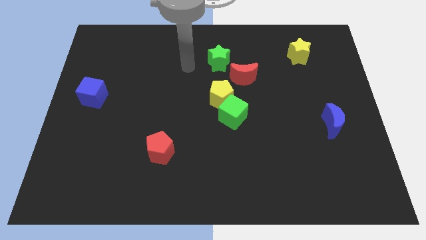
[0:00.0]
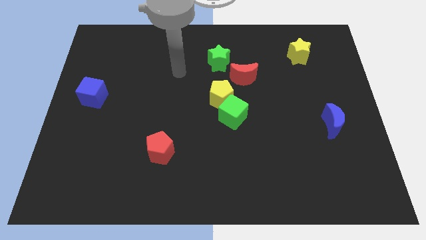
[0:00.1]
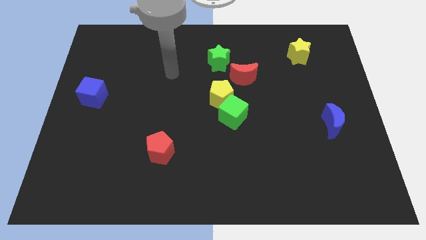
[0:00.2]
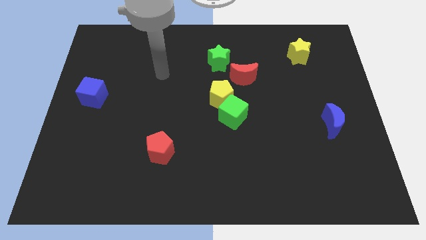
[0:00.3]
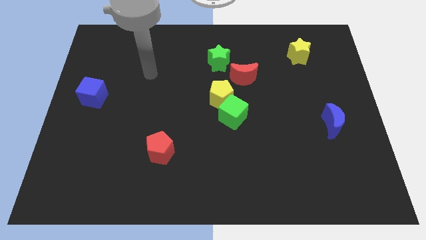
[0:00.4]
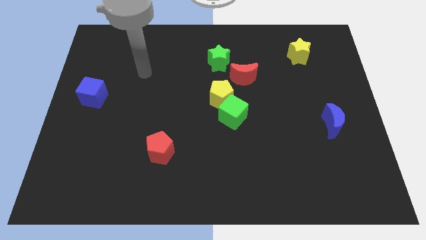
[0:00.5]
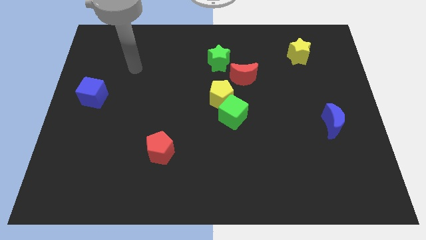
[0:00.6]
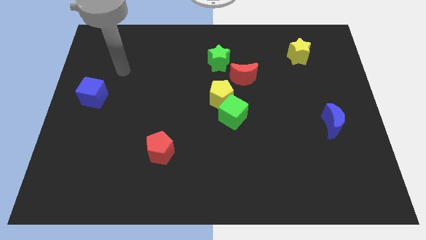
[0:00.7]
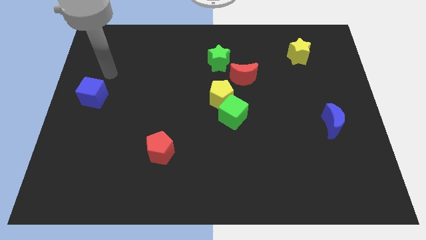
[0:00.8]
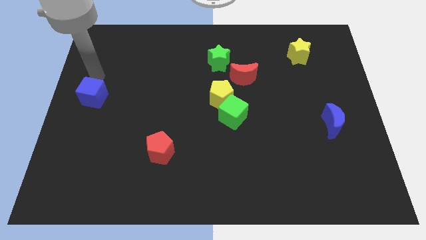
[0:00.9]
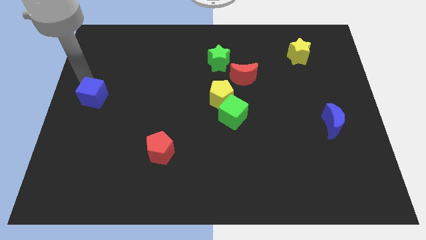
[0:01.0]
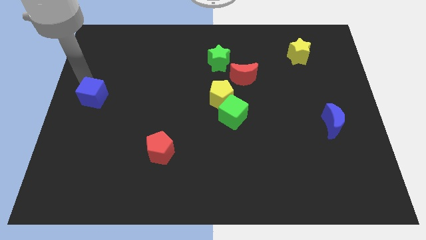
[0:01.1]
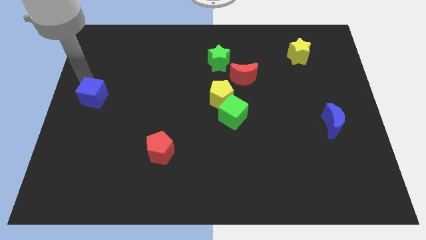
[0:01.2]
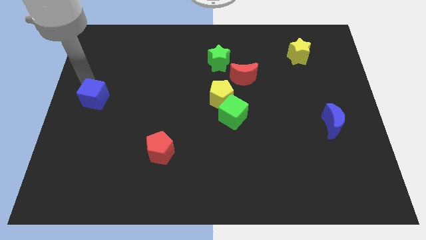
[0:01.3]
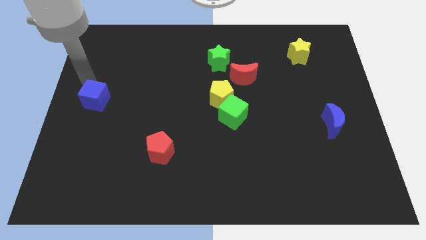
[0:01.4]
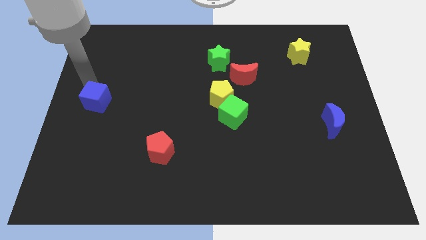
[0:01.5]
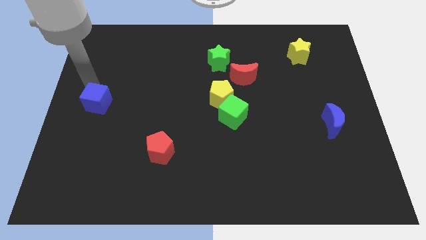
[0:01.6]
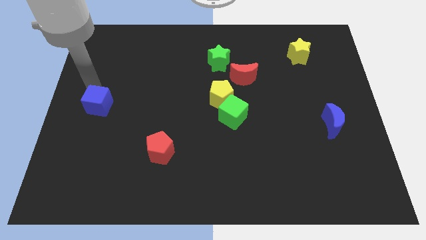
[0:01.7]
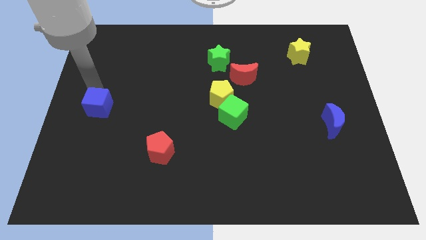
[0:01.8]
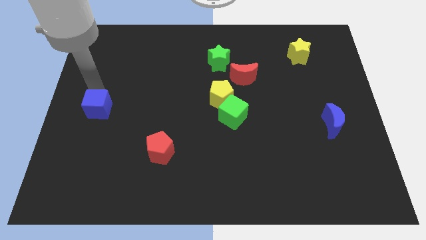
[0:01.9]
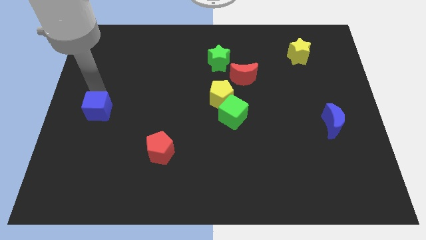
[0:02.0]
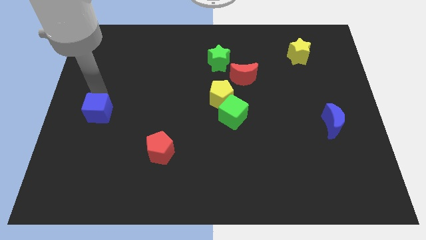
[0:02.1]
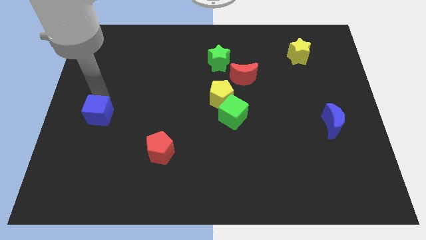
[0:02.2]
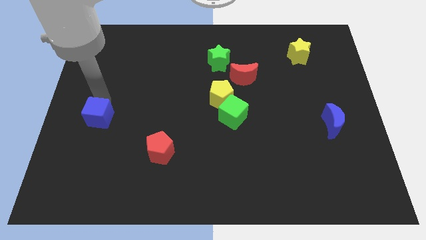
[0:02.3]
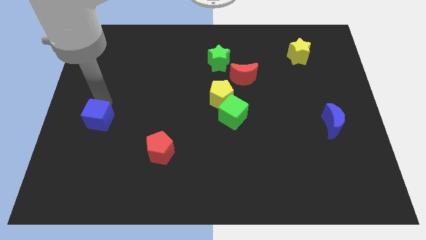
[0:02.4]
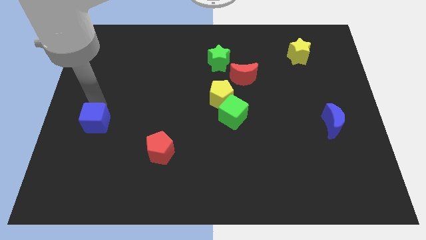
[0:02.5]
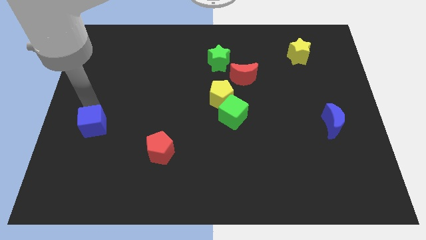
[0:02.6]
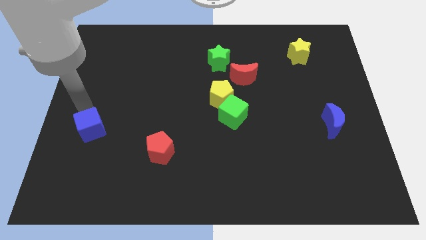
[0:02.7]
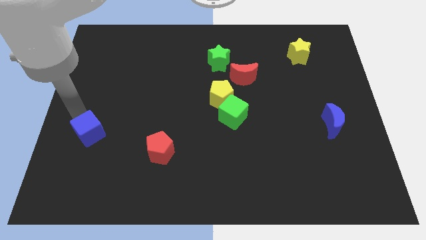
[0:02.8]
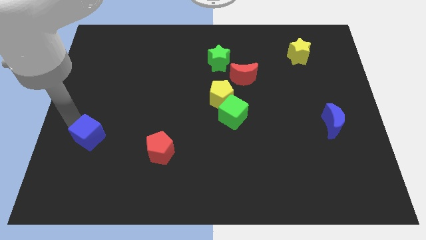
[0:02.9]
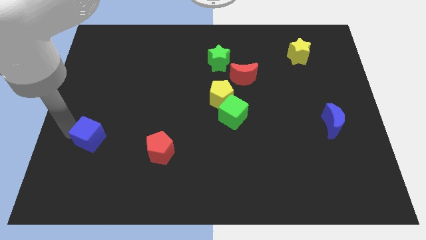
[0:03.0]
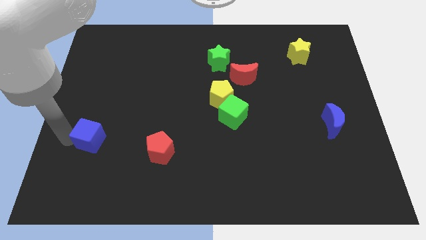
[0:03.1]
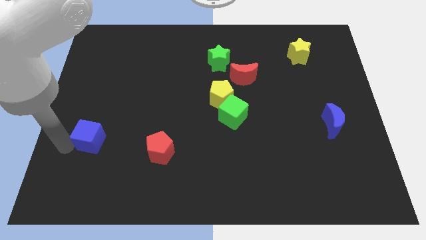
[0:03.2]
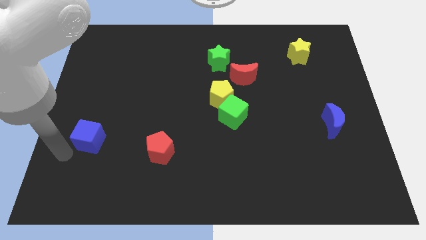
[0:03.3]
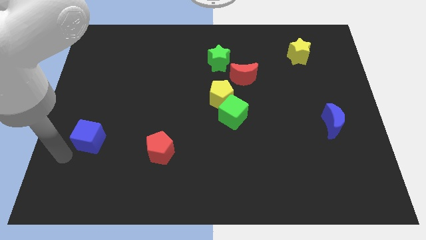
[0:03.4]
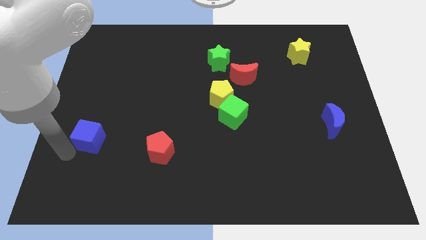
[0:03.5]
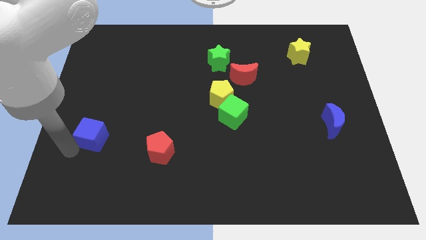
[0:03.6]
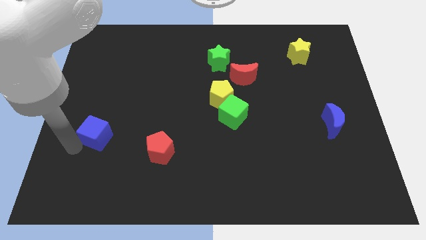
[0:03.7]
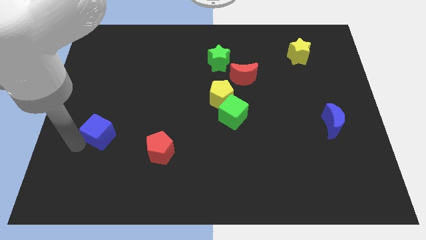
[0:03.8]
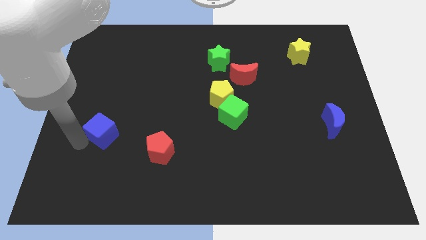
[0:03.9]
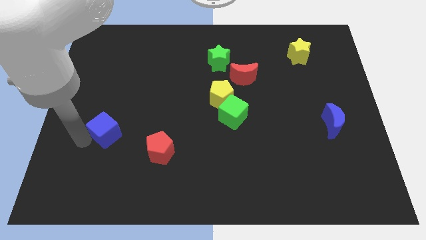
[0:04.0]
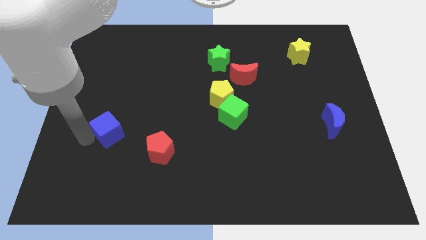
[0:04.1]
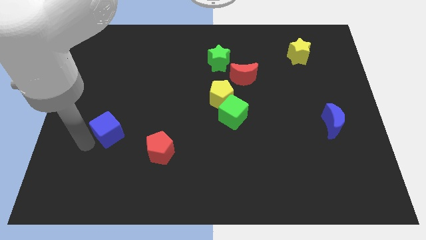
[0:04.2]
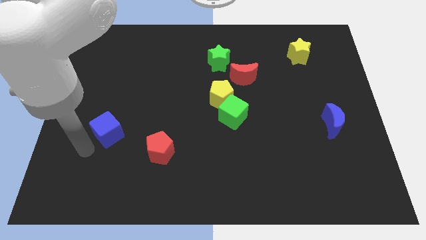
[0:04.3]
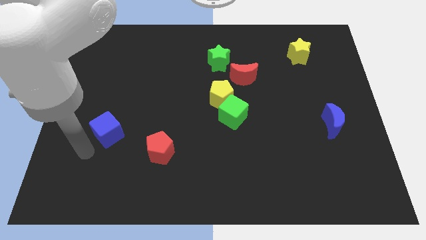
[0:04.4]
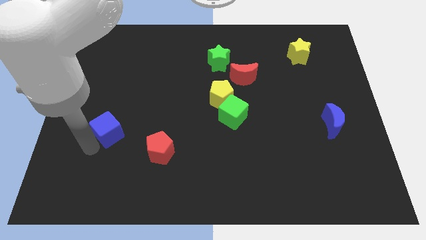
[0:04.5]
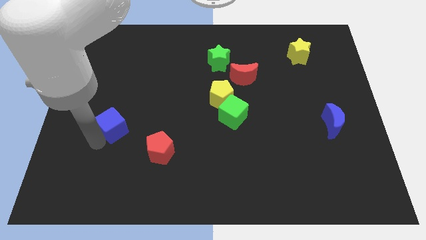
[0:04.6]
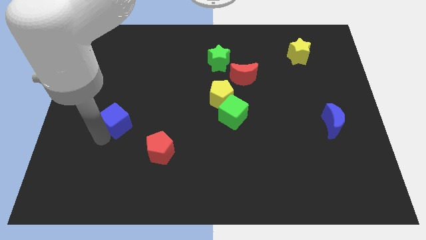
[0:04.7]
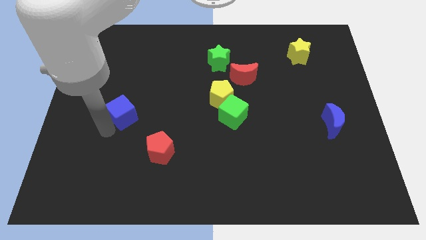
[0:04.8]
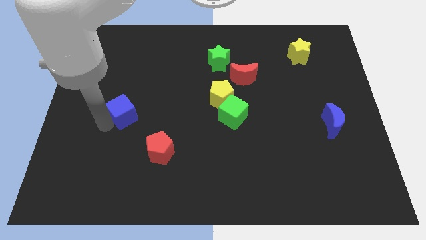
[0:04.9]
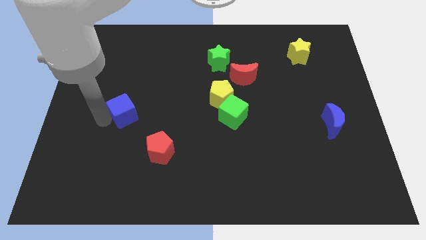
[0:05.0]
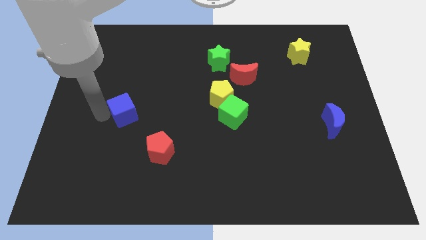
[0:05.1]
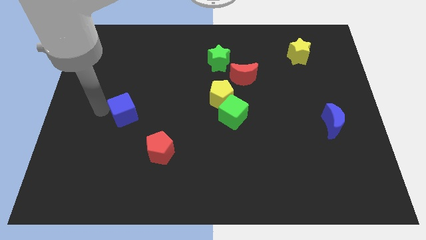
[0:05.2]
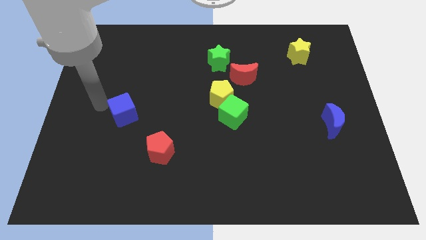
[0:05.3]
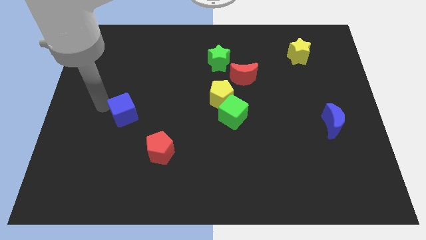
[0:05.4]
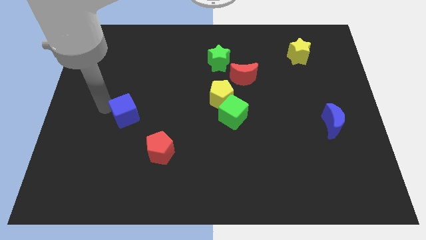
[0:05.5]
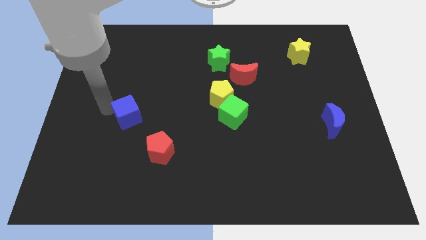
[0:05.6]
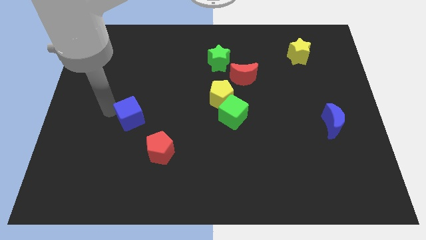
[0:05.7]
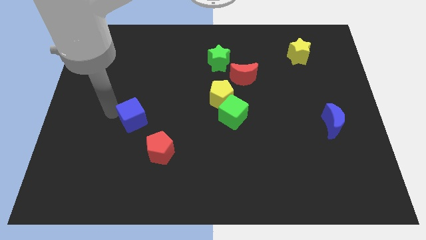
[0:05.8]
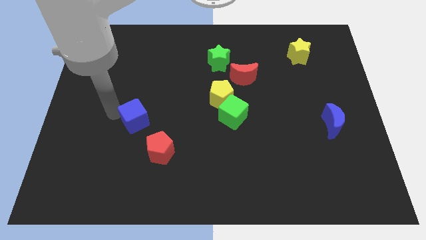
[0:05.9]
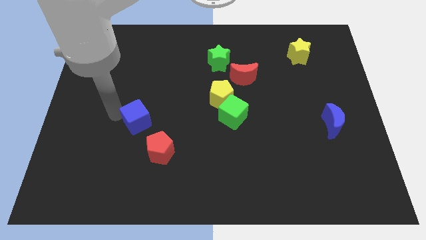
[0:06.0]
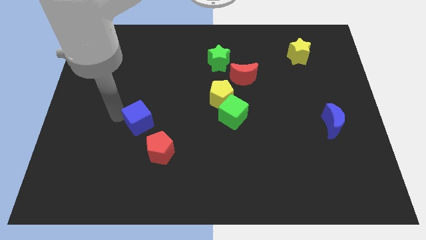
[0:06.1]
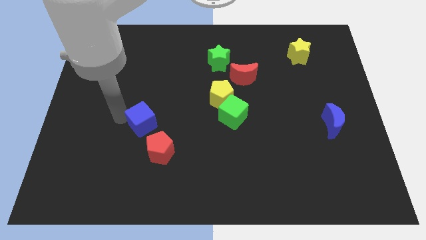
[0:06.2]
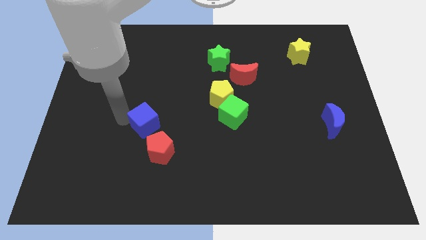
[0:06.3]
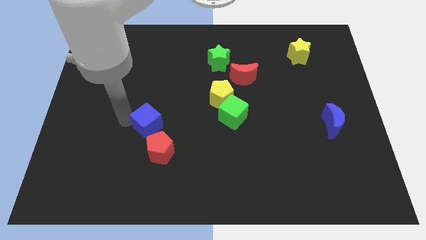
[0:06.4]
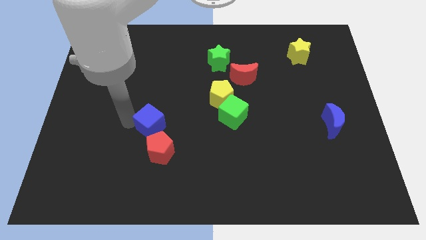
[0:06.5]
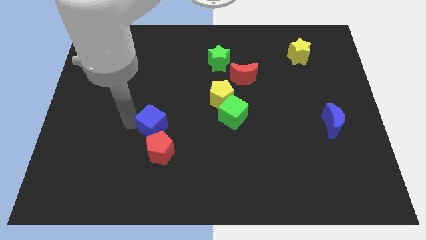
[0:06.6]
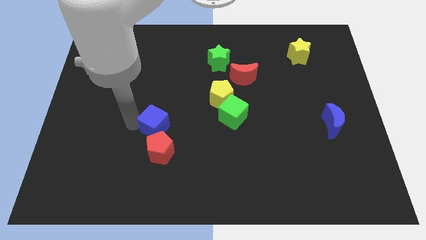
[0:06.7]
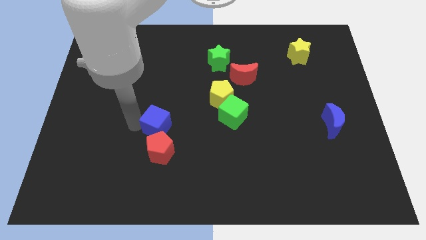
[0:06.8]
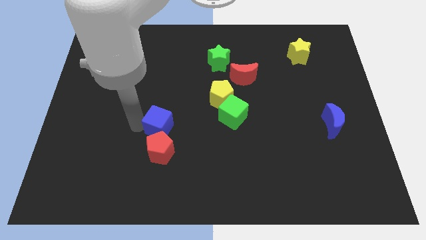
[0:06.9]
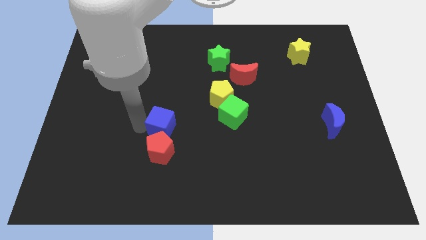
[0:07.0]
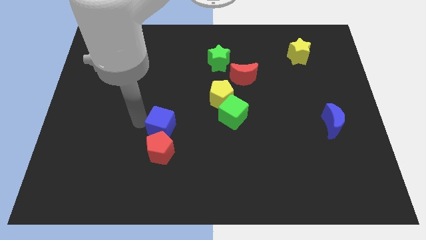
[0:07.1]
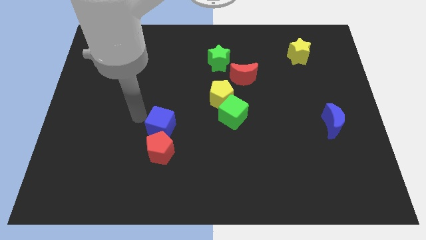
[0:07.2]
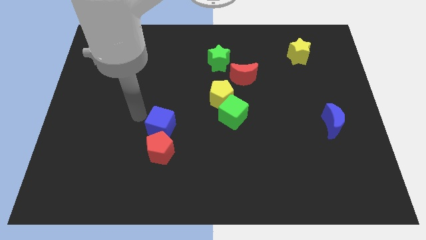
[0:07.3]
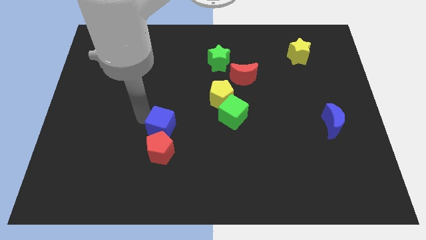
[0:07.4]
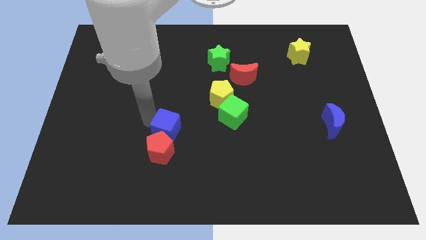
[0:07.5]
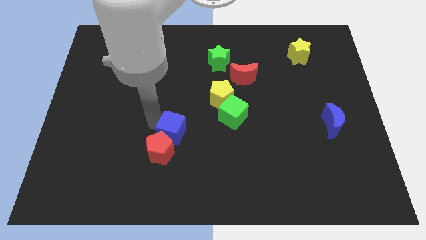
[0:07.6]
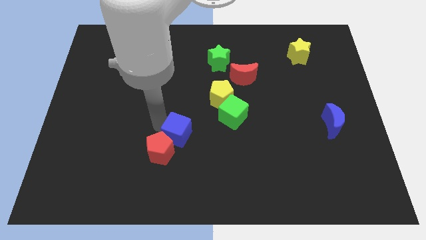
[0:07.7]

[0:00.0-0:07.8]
slide the blue cube to the right of the red pentagon
